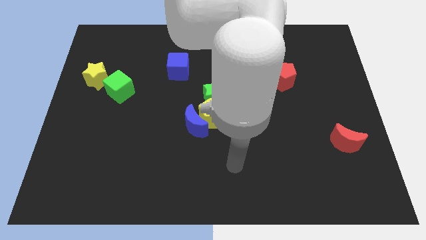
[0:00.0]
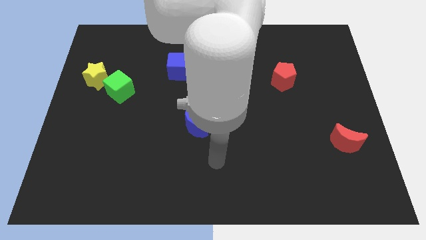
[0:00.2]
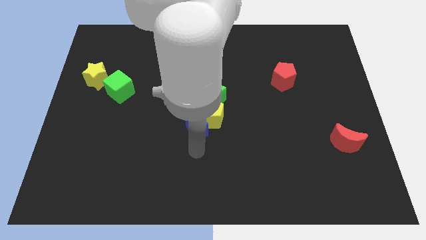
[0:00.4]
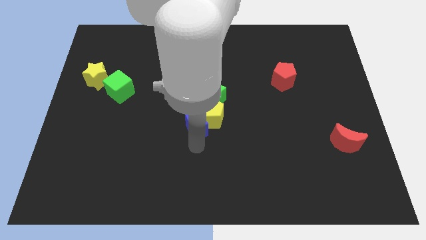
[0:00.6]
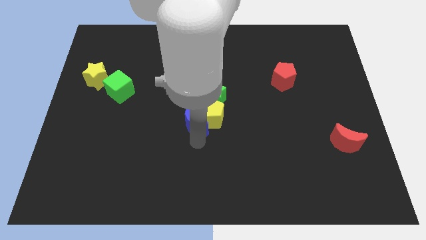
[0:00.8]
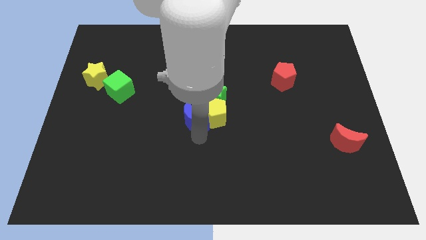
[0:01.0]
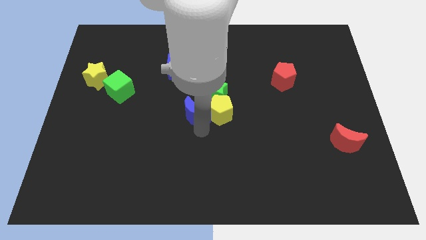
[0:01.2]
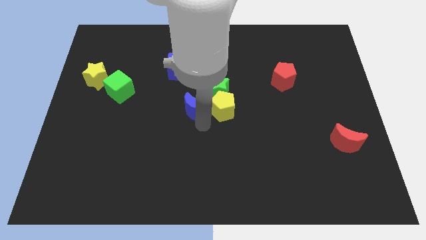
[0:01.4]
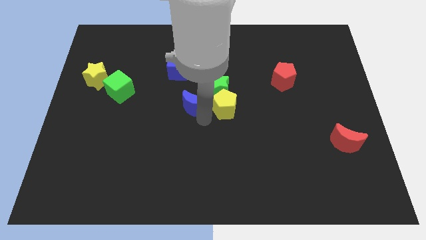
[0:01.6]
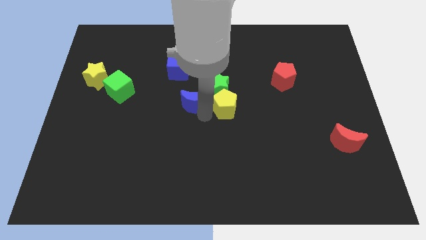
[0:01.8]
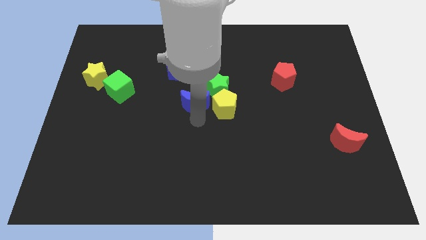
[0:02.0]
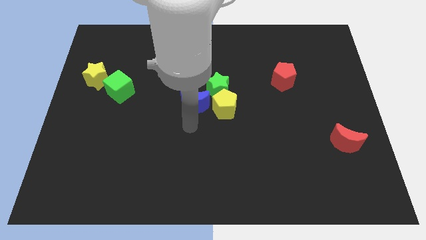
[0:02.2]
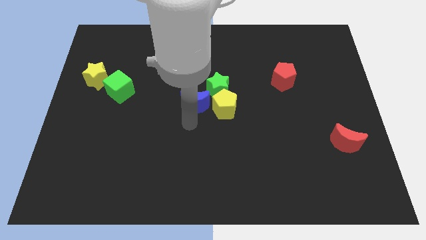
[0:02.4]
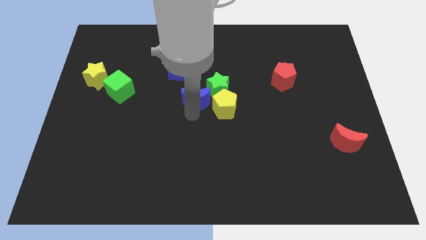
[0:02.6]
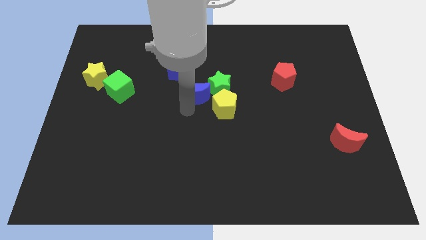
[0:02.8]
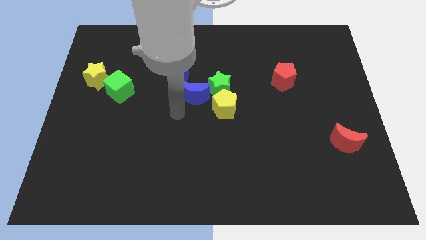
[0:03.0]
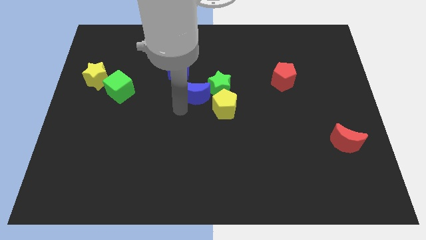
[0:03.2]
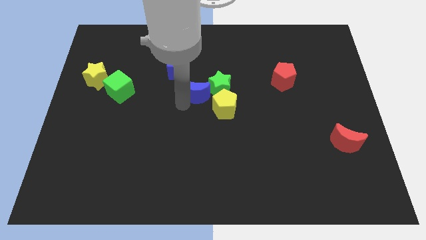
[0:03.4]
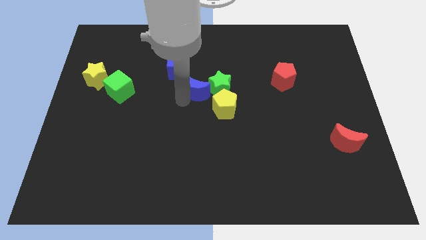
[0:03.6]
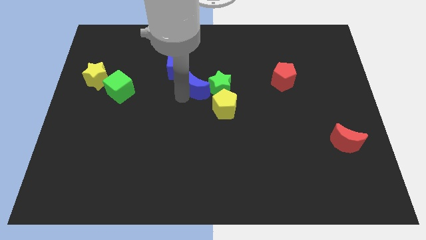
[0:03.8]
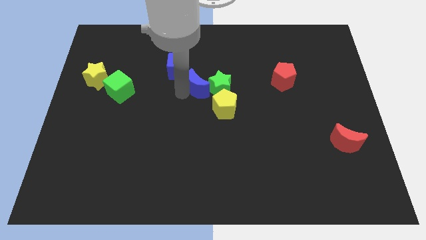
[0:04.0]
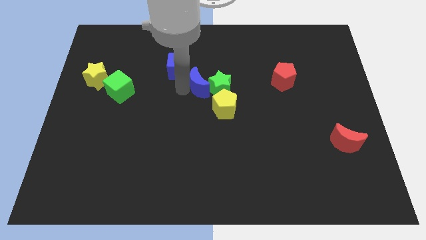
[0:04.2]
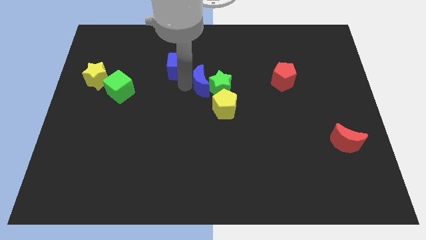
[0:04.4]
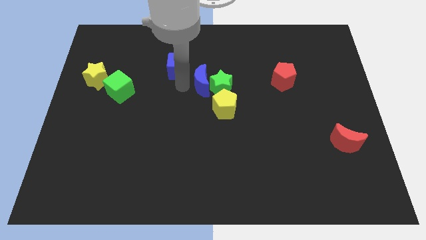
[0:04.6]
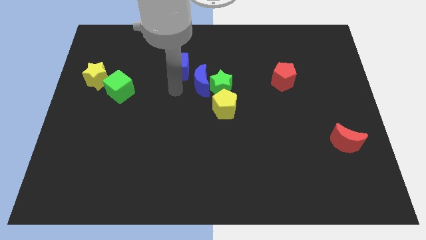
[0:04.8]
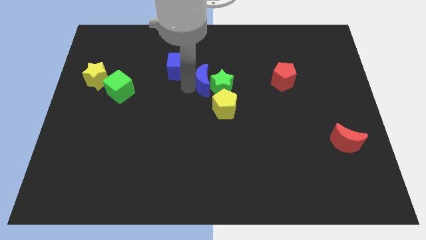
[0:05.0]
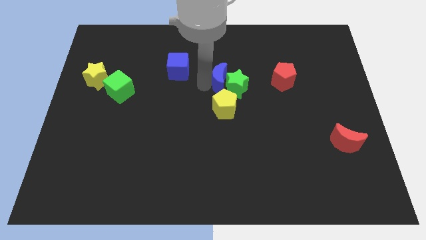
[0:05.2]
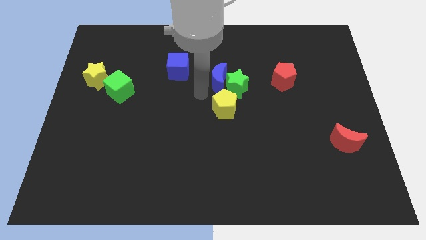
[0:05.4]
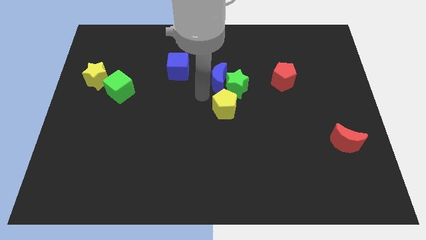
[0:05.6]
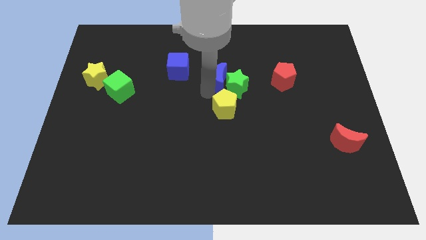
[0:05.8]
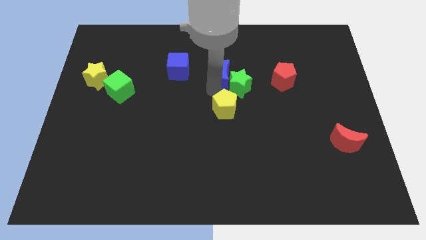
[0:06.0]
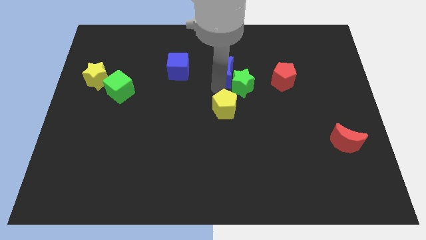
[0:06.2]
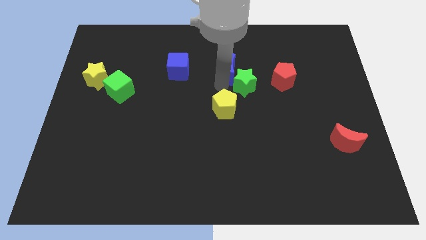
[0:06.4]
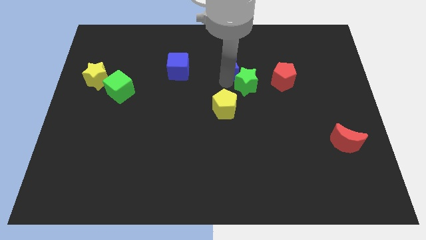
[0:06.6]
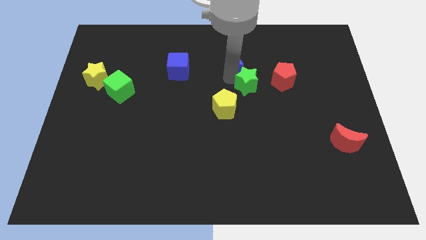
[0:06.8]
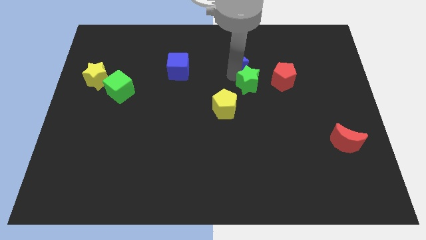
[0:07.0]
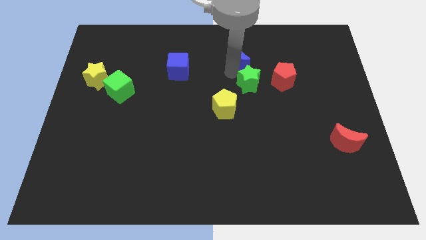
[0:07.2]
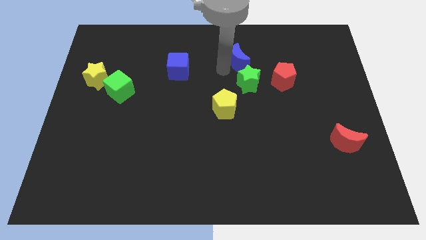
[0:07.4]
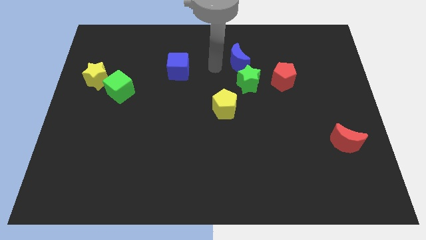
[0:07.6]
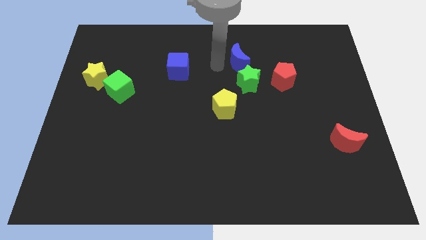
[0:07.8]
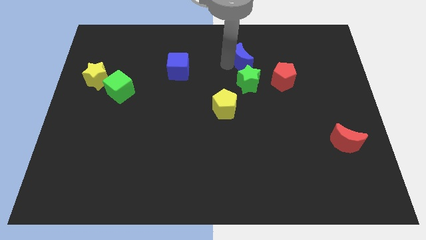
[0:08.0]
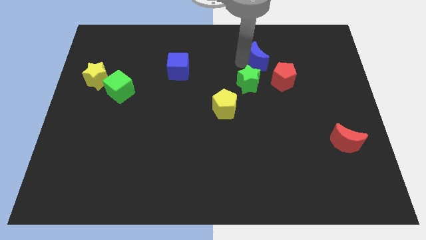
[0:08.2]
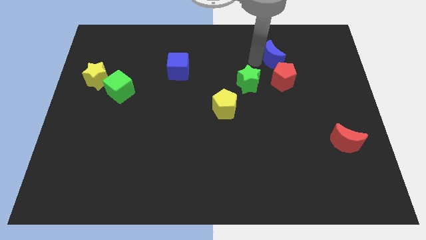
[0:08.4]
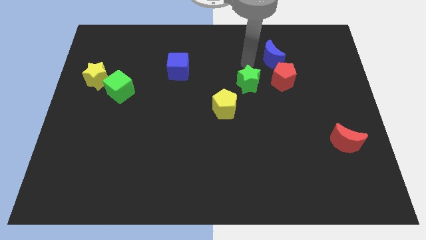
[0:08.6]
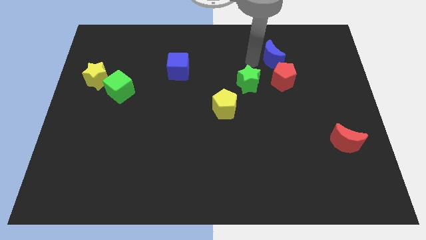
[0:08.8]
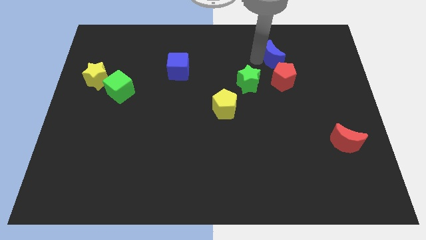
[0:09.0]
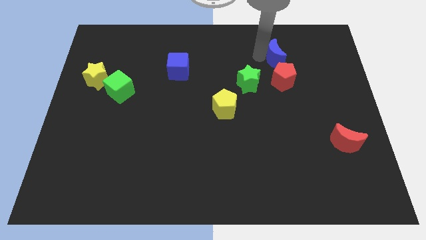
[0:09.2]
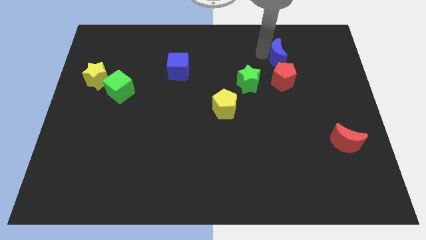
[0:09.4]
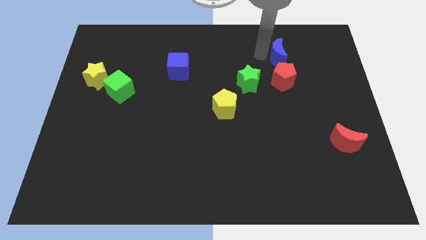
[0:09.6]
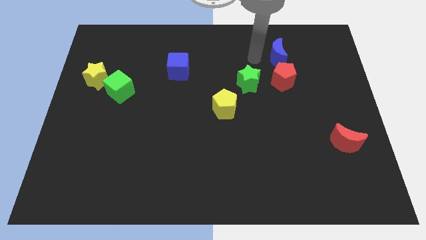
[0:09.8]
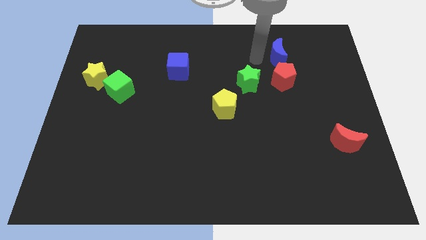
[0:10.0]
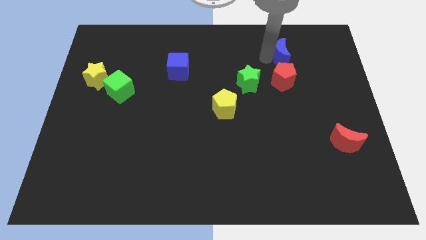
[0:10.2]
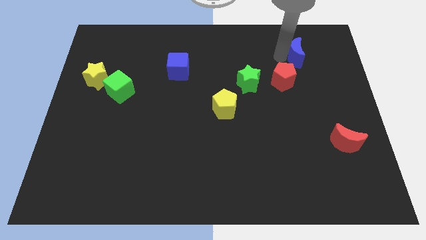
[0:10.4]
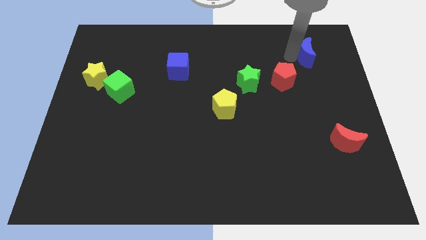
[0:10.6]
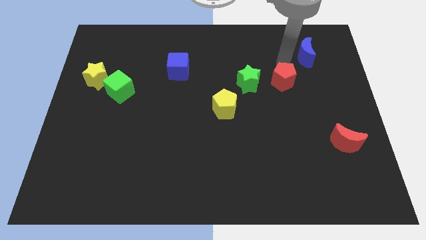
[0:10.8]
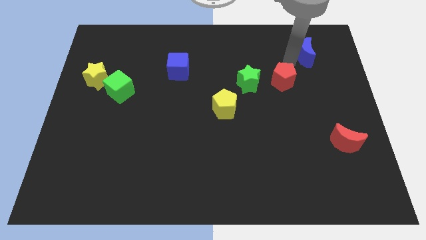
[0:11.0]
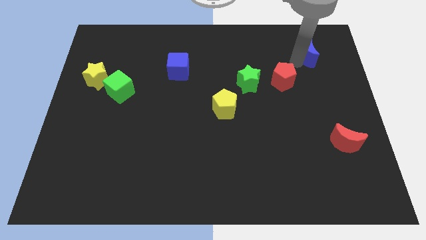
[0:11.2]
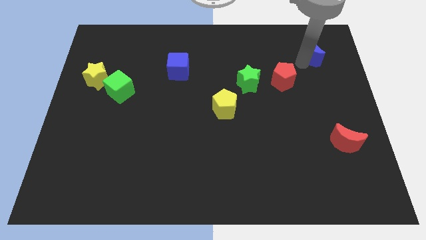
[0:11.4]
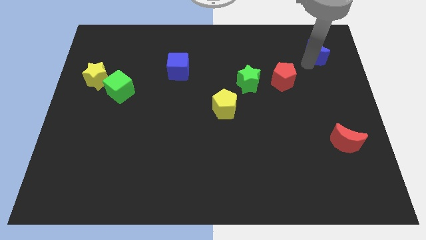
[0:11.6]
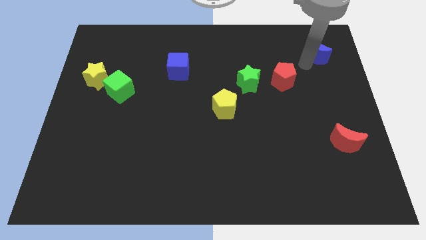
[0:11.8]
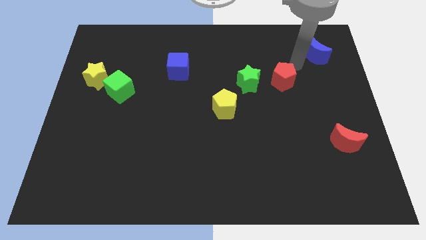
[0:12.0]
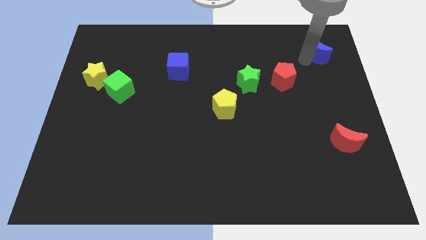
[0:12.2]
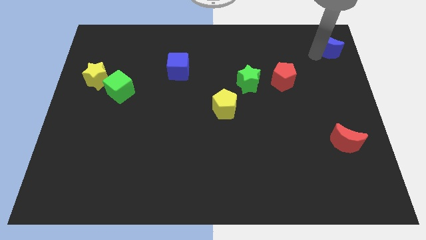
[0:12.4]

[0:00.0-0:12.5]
push the blue moon to the top right of the board

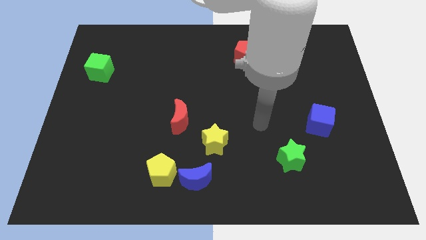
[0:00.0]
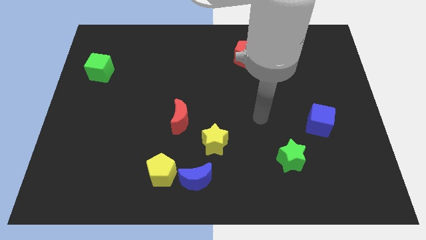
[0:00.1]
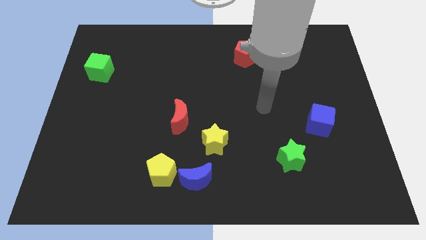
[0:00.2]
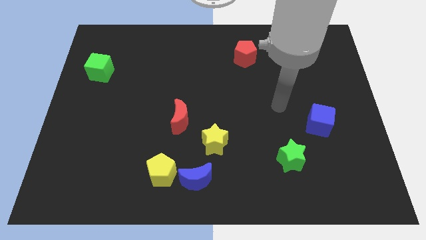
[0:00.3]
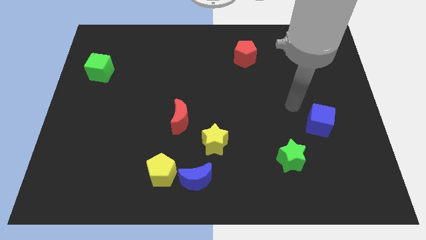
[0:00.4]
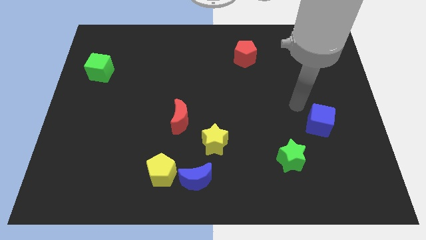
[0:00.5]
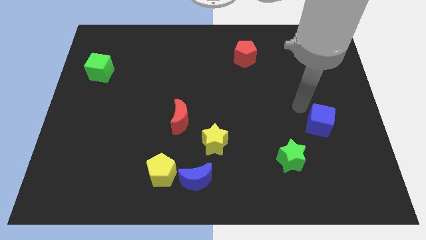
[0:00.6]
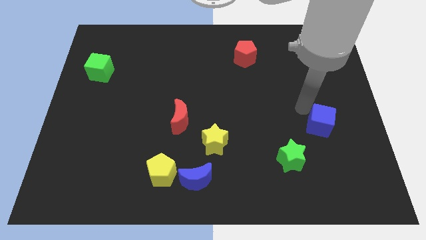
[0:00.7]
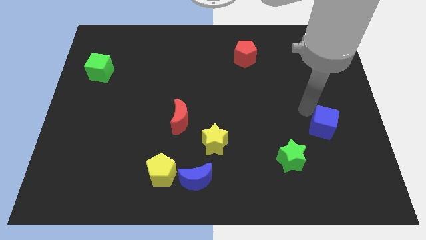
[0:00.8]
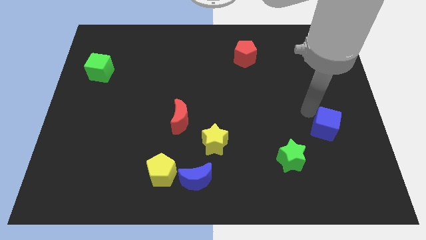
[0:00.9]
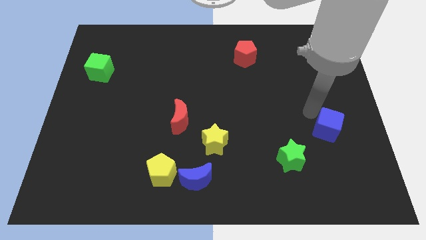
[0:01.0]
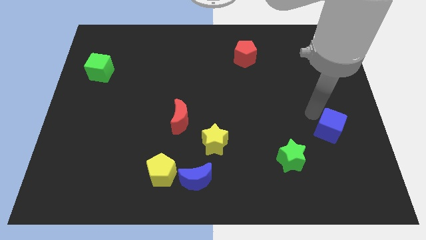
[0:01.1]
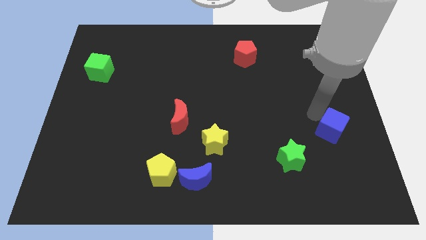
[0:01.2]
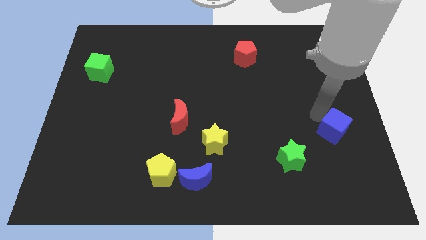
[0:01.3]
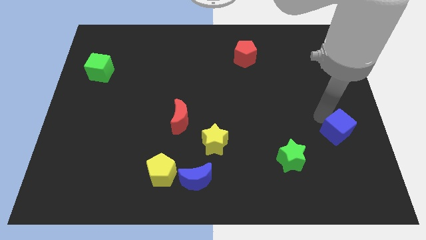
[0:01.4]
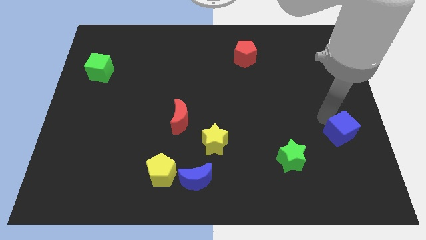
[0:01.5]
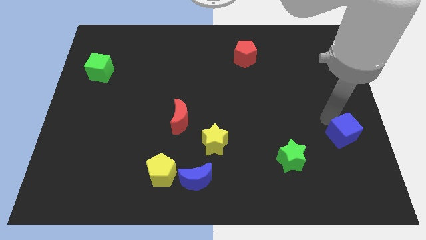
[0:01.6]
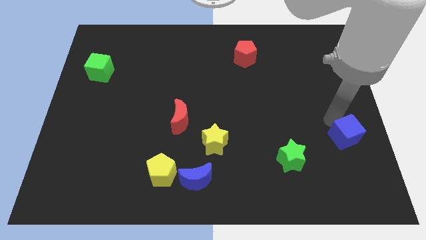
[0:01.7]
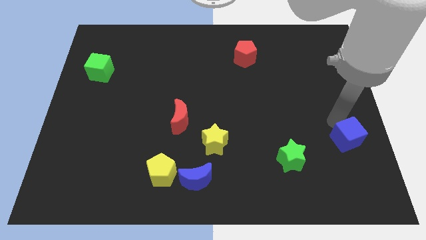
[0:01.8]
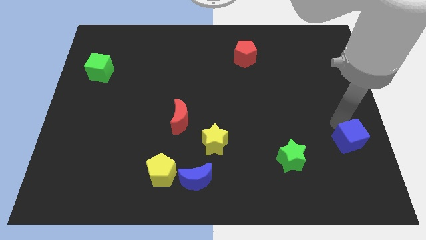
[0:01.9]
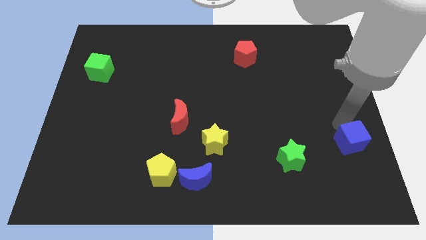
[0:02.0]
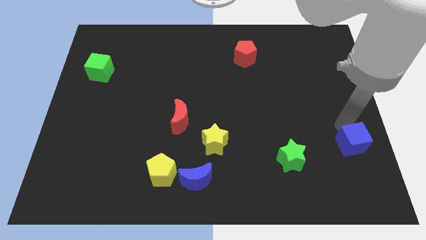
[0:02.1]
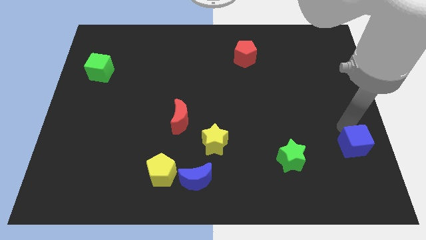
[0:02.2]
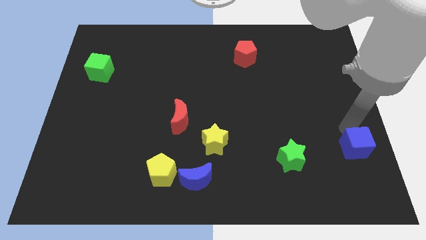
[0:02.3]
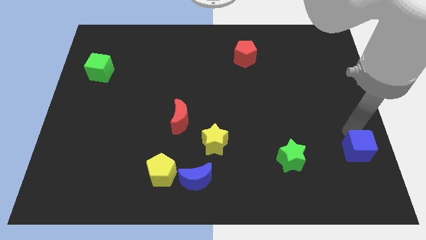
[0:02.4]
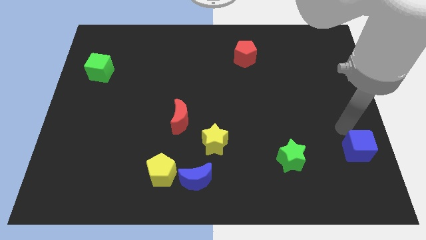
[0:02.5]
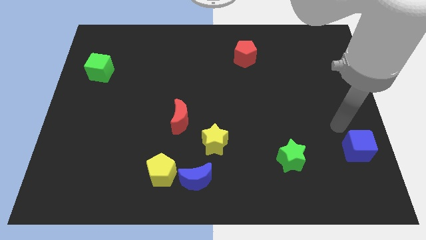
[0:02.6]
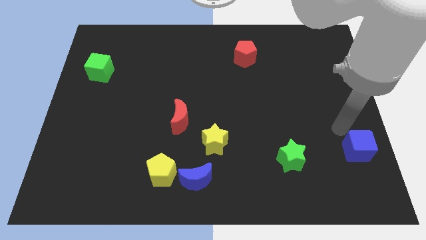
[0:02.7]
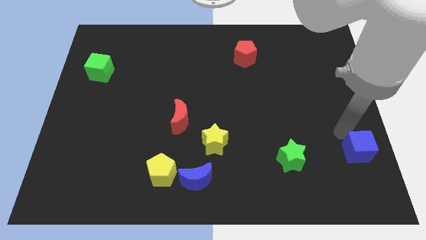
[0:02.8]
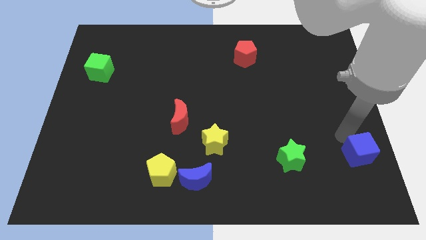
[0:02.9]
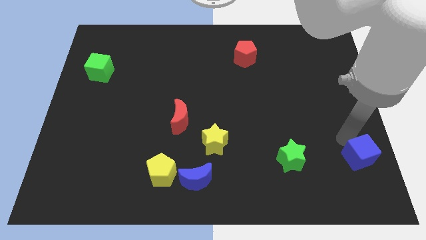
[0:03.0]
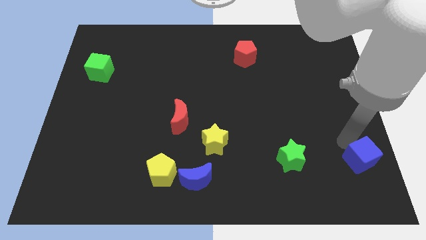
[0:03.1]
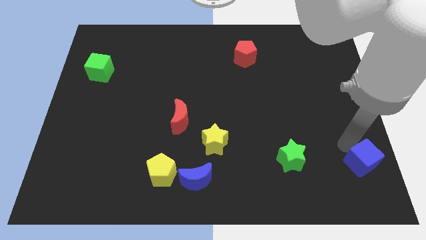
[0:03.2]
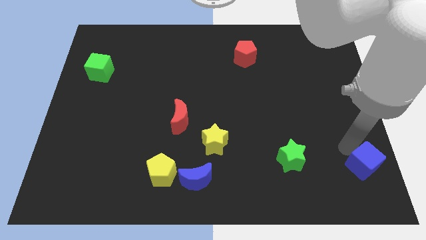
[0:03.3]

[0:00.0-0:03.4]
push the blue cube to the bottom right of the board
